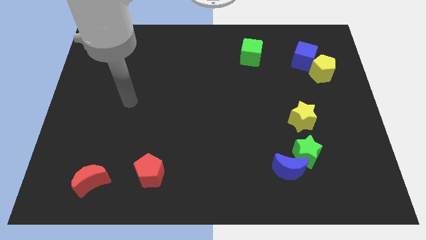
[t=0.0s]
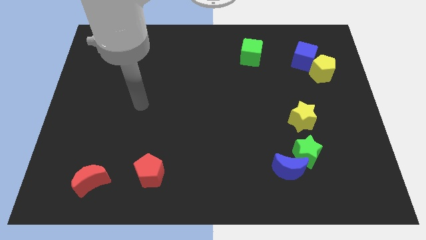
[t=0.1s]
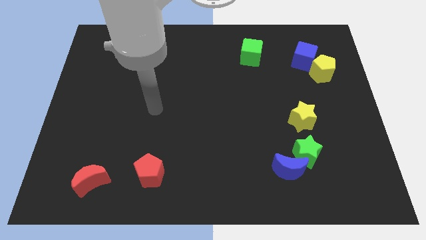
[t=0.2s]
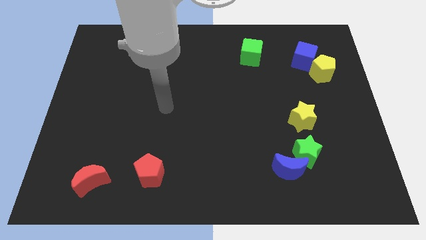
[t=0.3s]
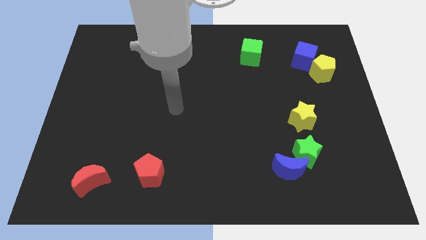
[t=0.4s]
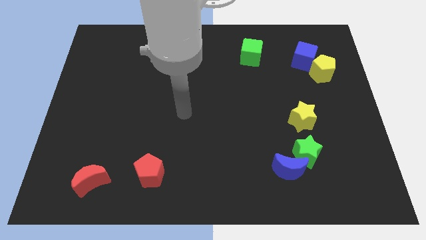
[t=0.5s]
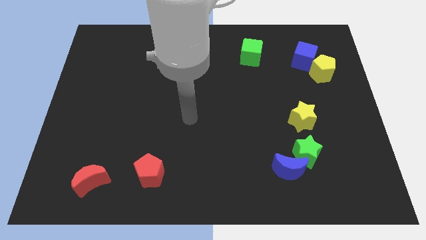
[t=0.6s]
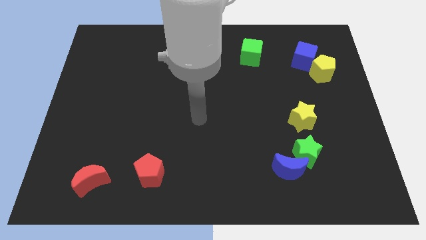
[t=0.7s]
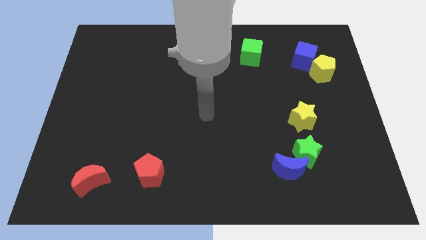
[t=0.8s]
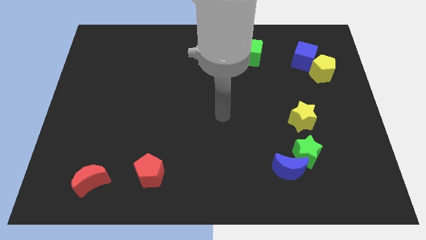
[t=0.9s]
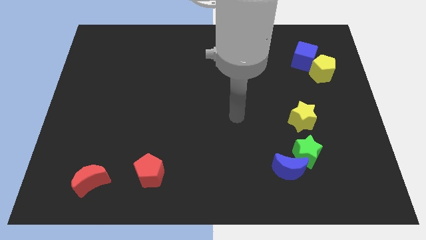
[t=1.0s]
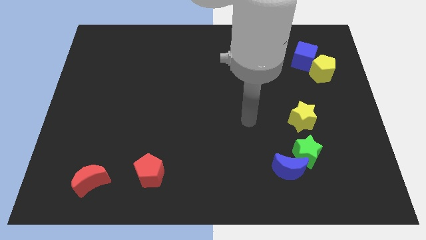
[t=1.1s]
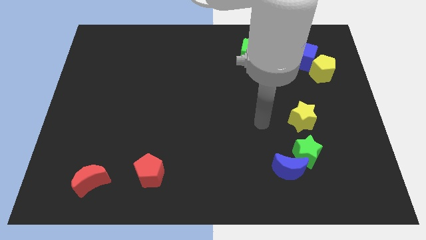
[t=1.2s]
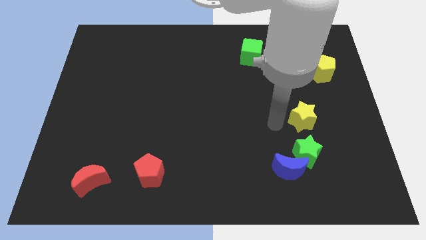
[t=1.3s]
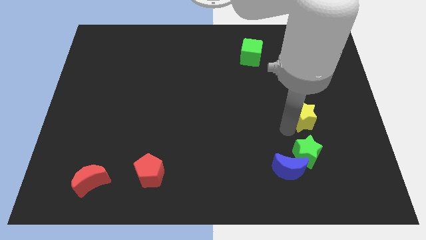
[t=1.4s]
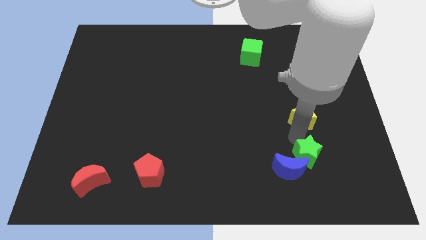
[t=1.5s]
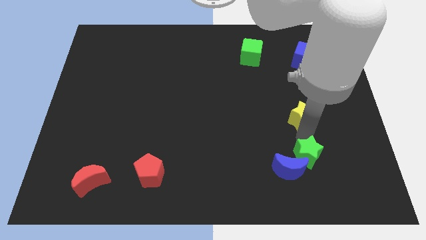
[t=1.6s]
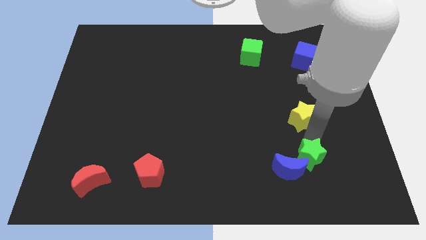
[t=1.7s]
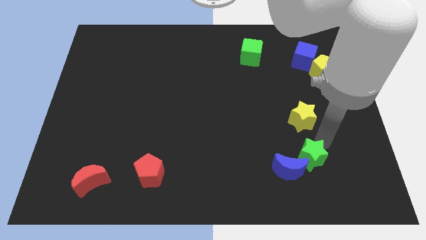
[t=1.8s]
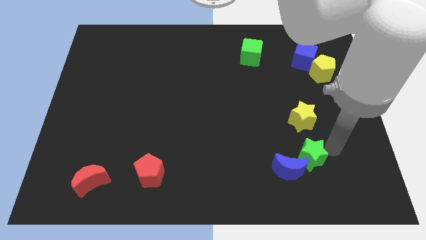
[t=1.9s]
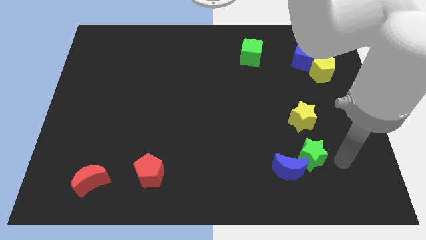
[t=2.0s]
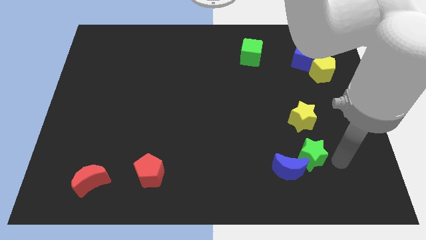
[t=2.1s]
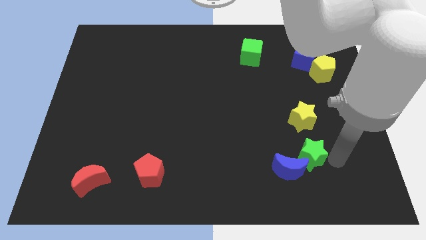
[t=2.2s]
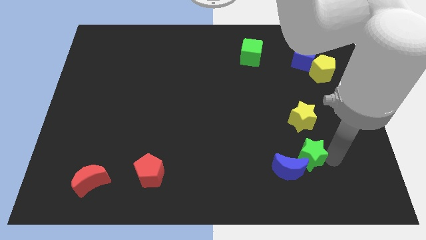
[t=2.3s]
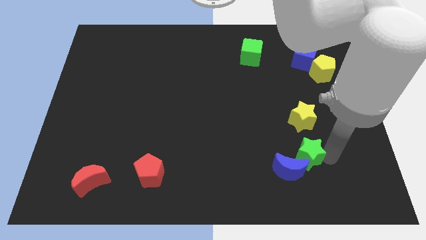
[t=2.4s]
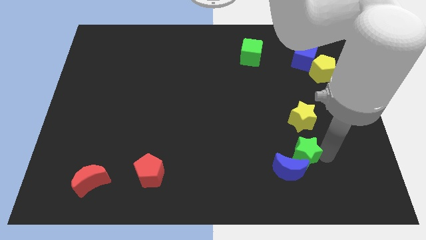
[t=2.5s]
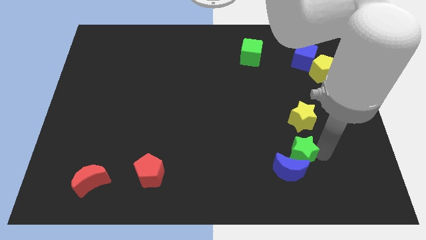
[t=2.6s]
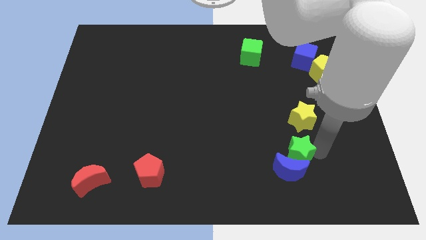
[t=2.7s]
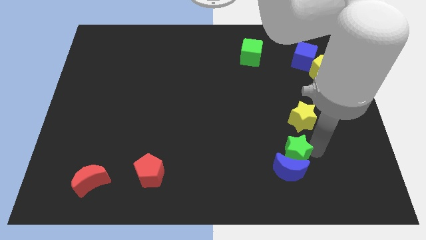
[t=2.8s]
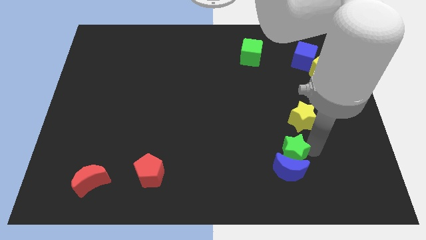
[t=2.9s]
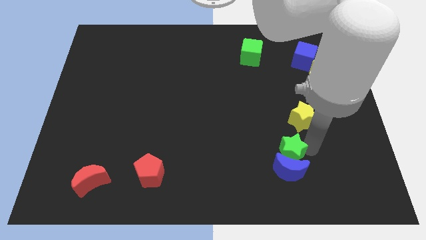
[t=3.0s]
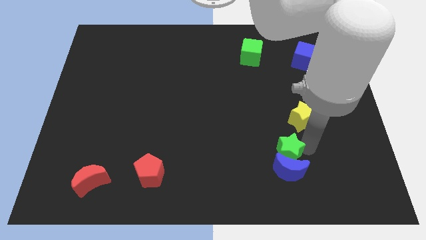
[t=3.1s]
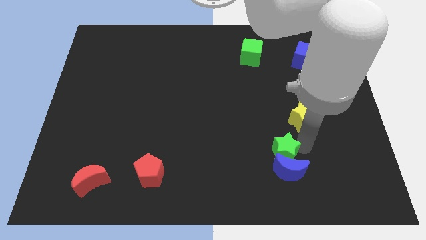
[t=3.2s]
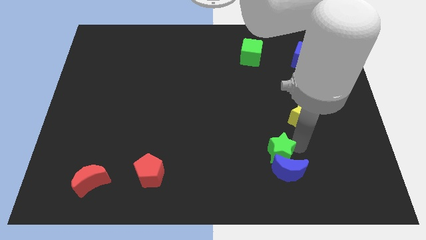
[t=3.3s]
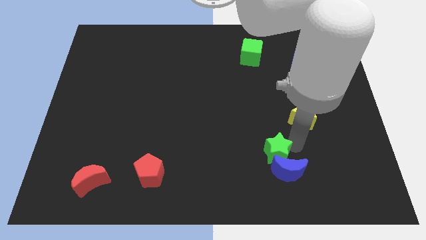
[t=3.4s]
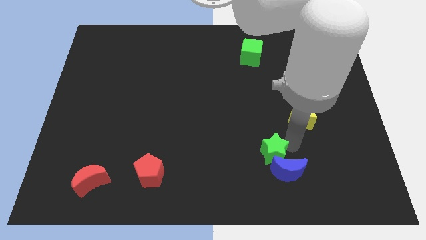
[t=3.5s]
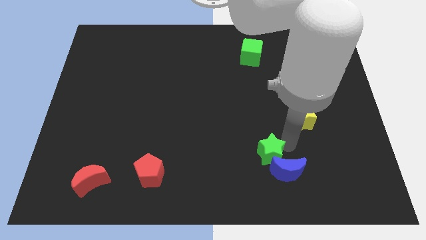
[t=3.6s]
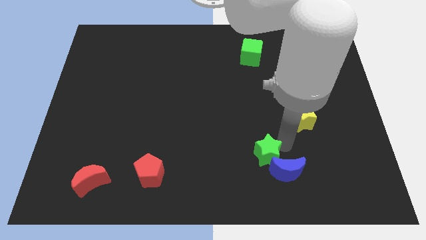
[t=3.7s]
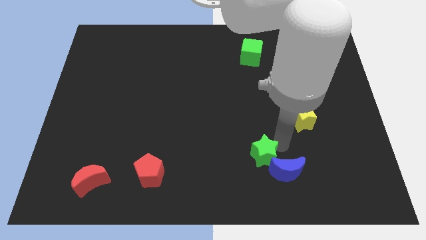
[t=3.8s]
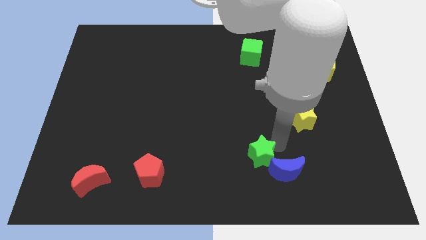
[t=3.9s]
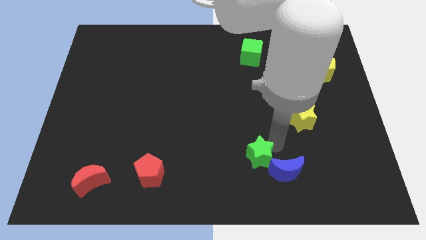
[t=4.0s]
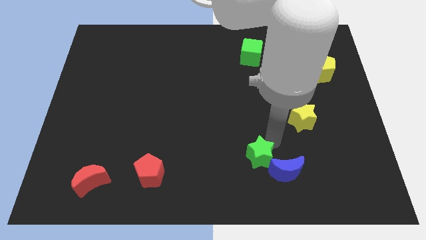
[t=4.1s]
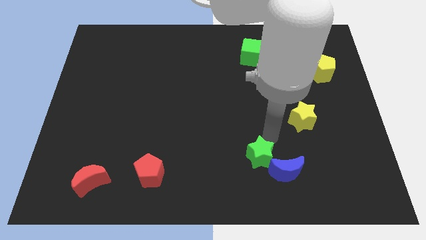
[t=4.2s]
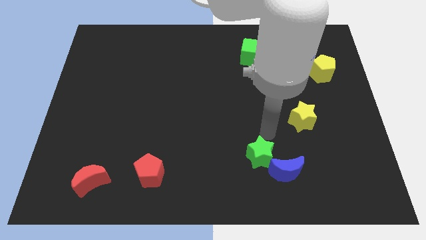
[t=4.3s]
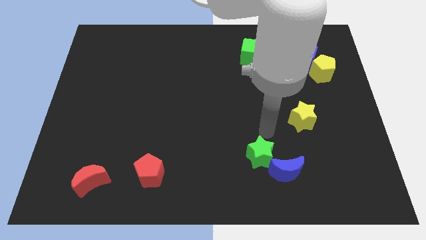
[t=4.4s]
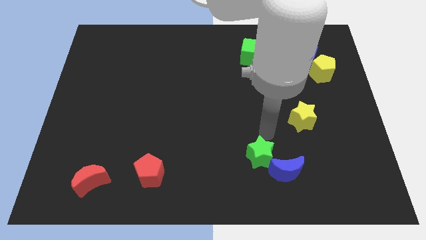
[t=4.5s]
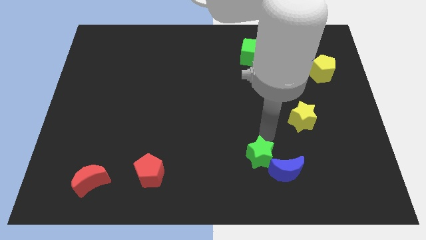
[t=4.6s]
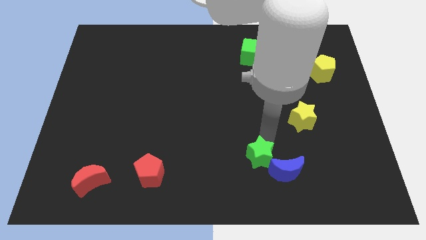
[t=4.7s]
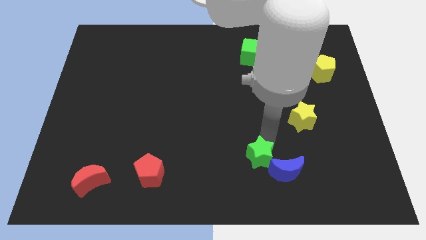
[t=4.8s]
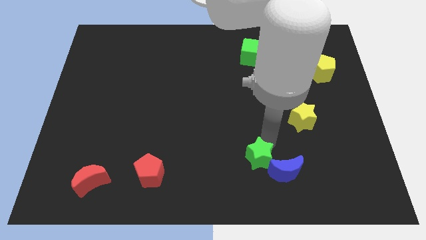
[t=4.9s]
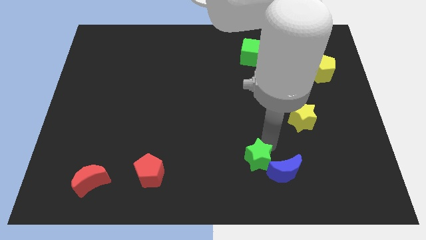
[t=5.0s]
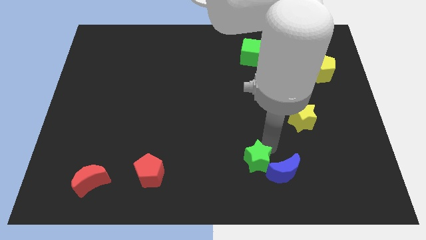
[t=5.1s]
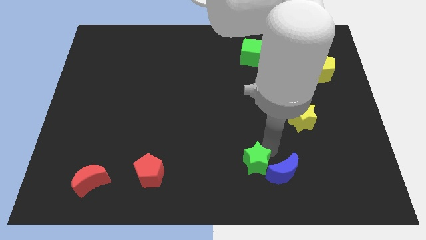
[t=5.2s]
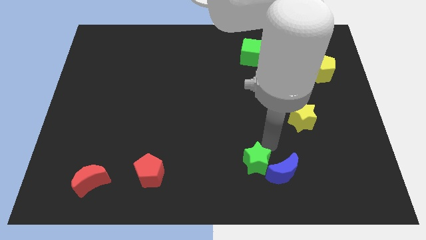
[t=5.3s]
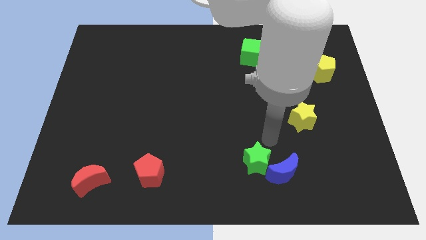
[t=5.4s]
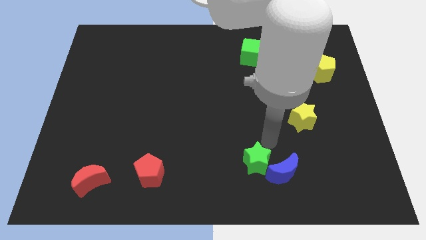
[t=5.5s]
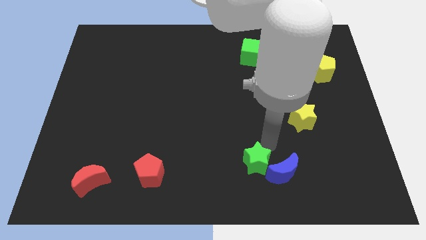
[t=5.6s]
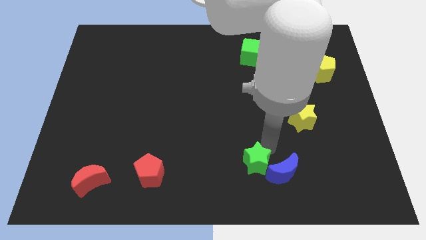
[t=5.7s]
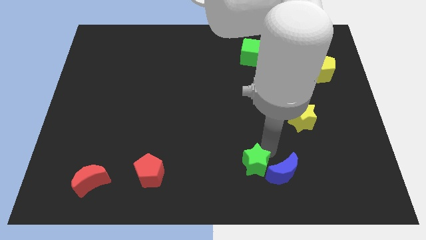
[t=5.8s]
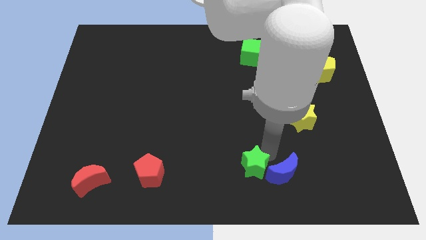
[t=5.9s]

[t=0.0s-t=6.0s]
move the green star to the bottom
